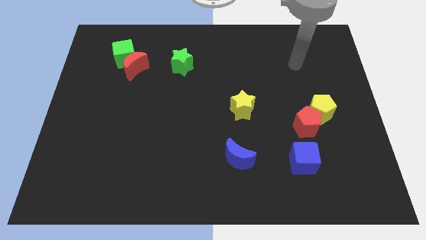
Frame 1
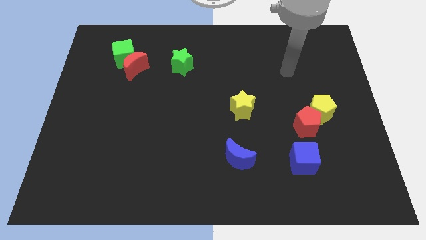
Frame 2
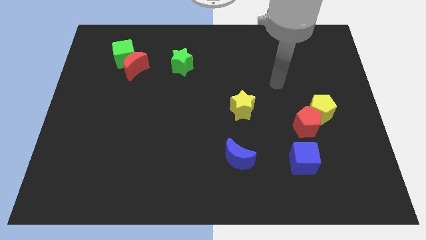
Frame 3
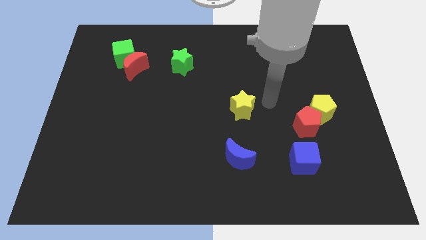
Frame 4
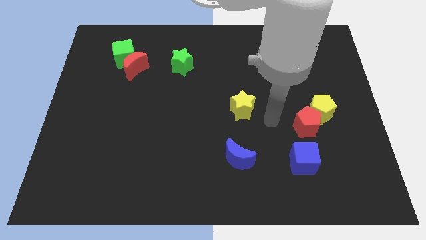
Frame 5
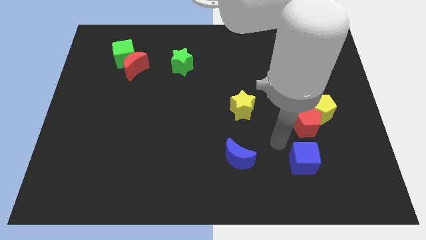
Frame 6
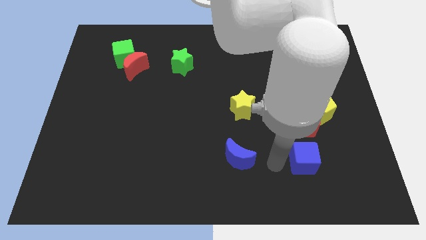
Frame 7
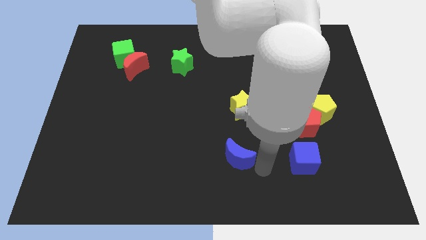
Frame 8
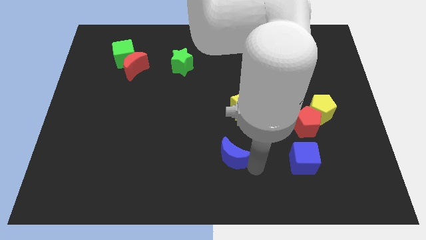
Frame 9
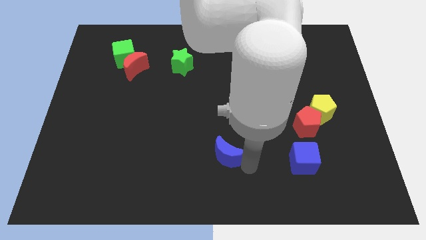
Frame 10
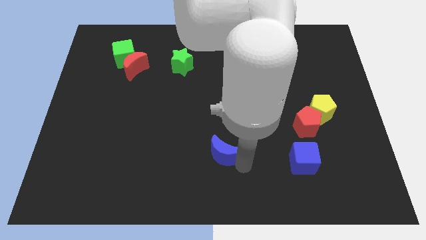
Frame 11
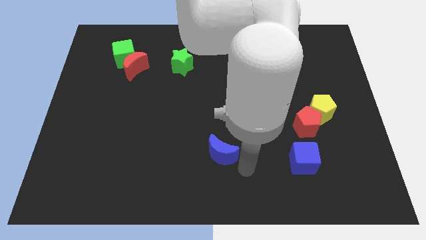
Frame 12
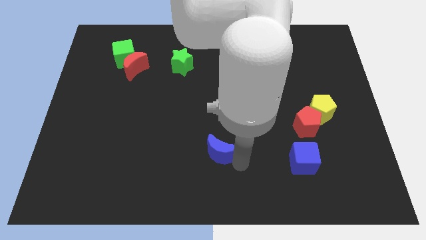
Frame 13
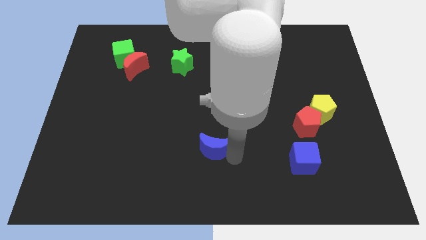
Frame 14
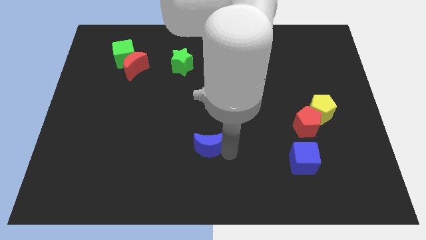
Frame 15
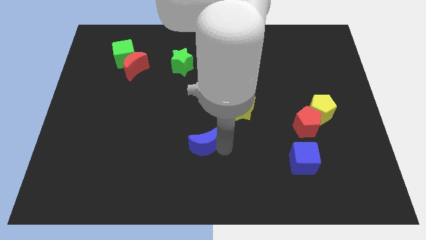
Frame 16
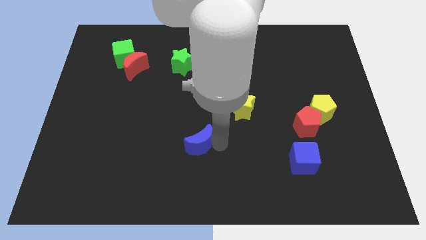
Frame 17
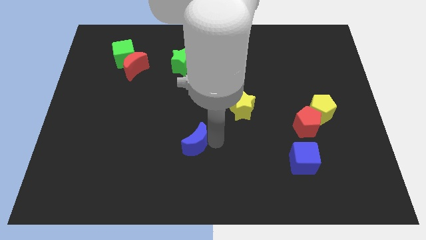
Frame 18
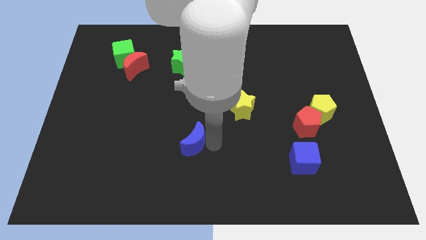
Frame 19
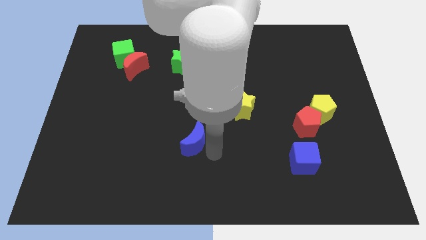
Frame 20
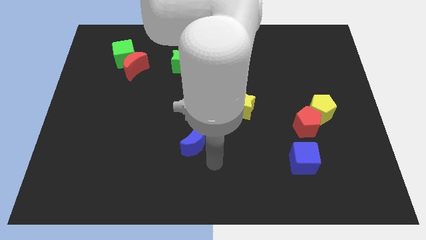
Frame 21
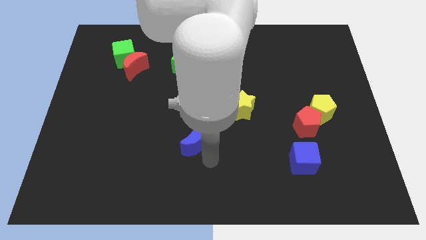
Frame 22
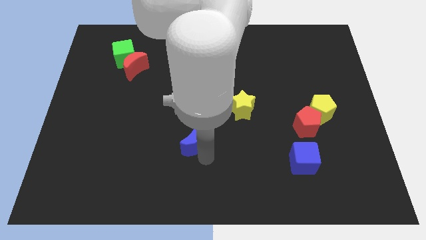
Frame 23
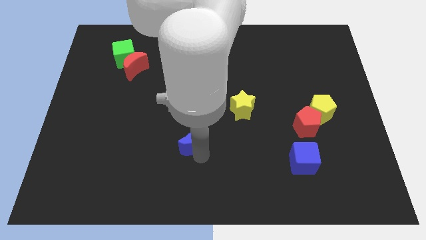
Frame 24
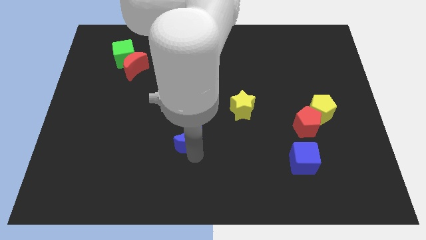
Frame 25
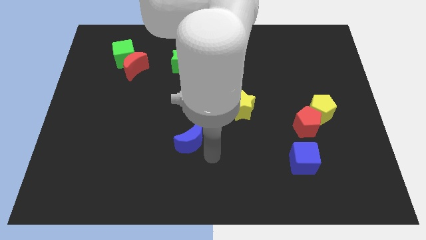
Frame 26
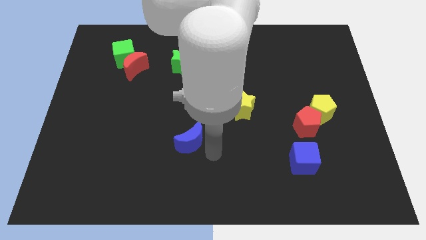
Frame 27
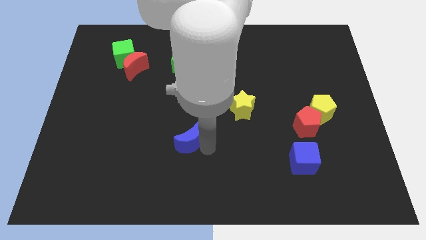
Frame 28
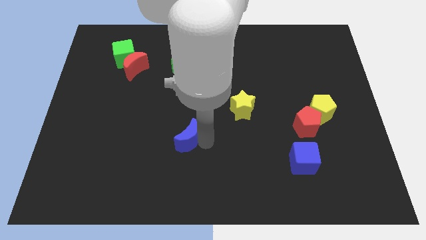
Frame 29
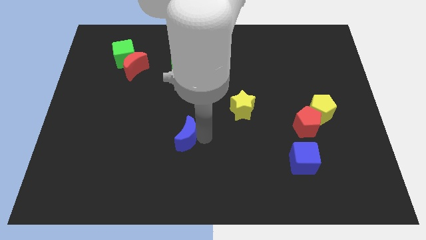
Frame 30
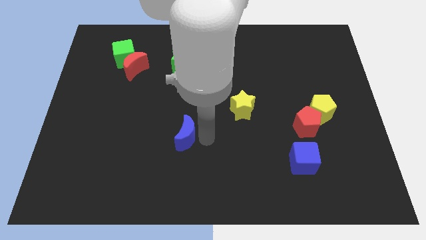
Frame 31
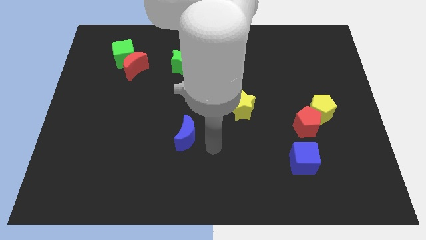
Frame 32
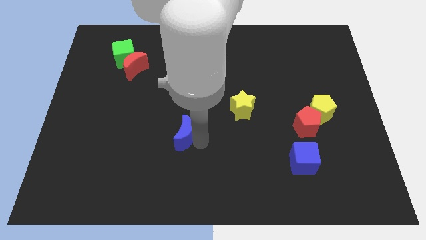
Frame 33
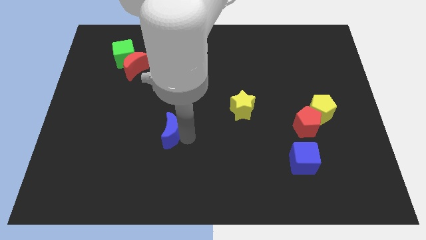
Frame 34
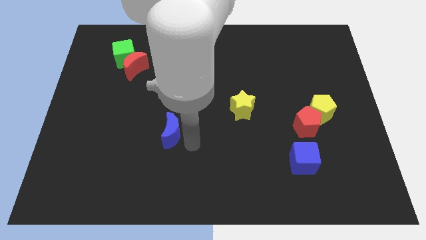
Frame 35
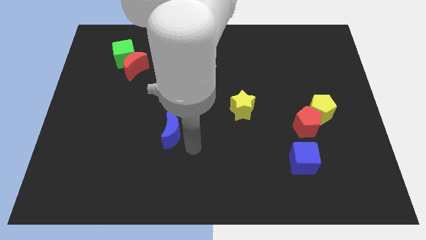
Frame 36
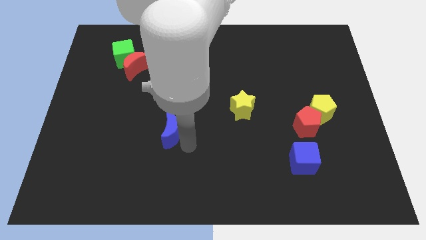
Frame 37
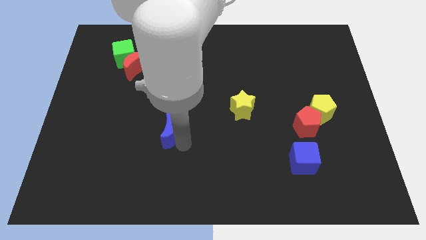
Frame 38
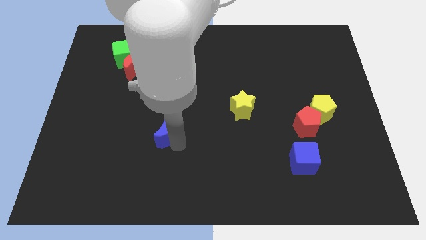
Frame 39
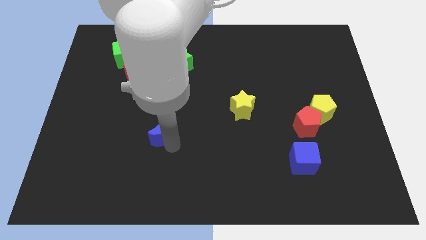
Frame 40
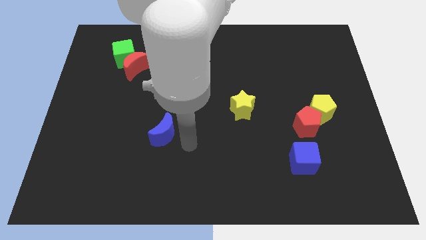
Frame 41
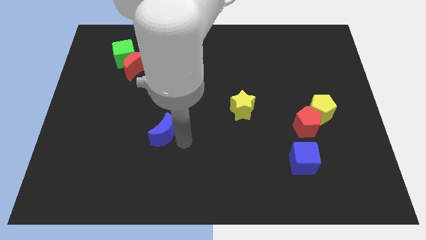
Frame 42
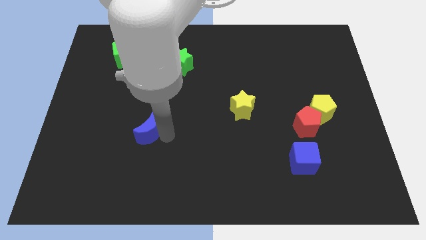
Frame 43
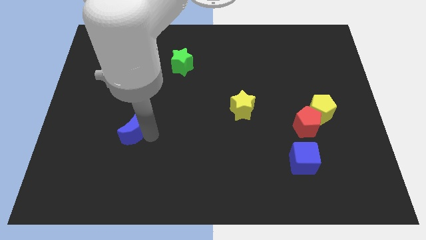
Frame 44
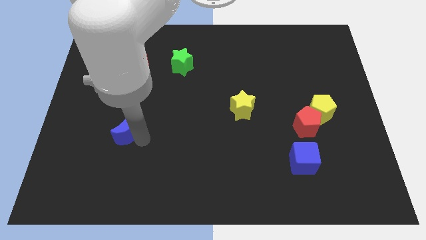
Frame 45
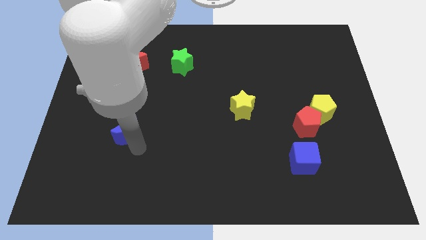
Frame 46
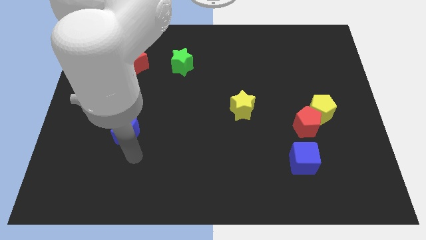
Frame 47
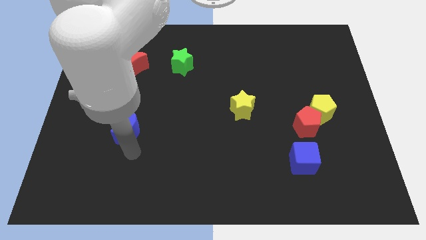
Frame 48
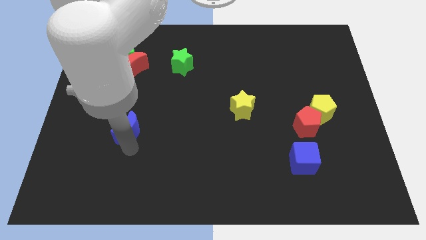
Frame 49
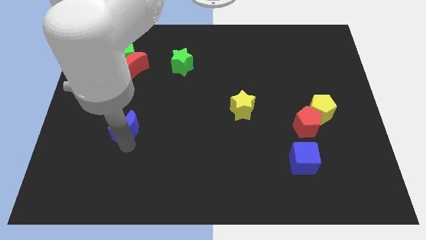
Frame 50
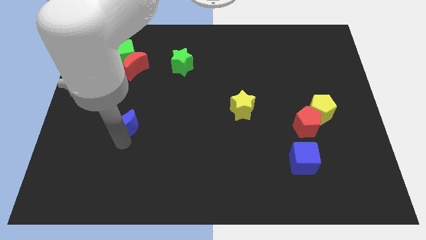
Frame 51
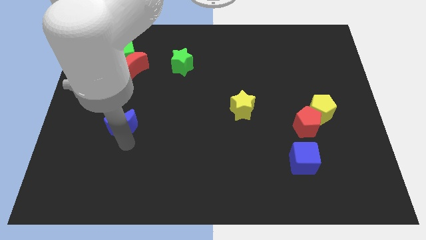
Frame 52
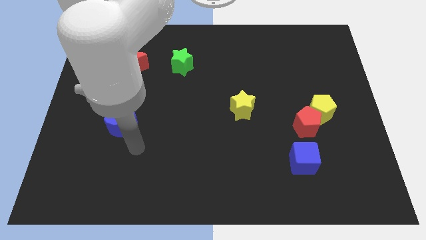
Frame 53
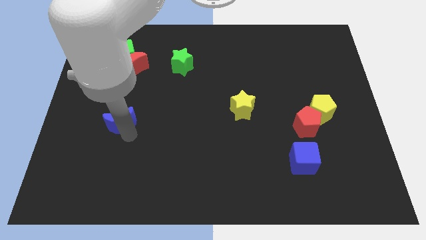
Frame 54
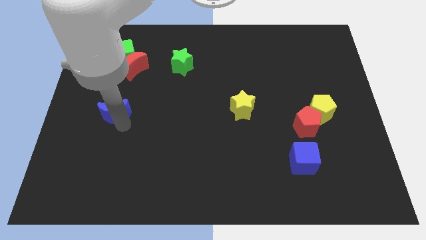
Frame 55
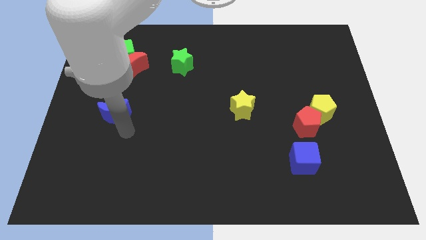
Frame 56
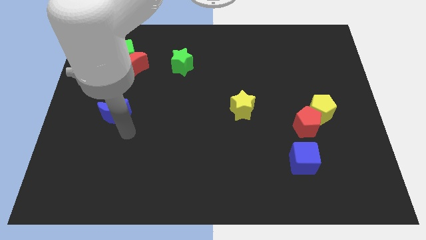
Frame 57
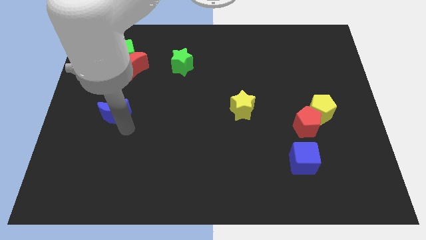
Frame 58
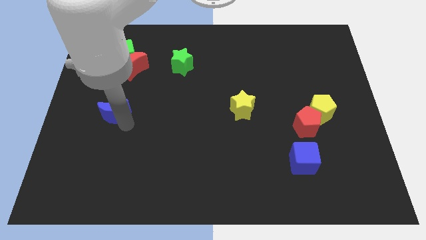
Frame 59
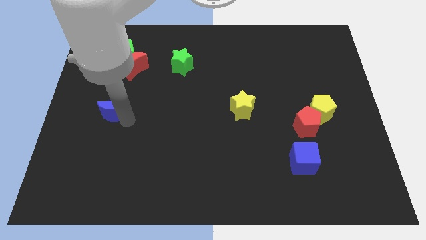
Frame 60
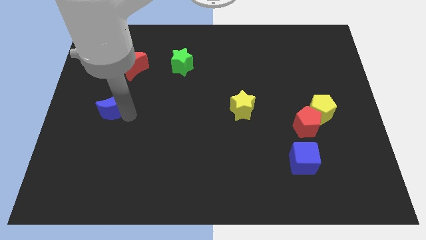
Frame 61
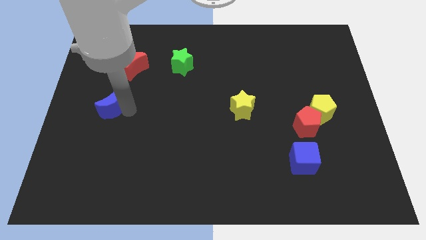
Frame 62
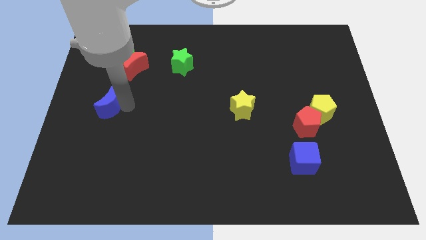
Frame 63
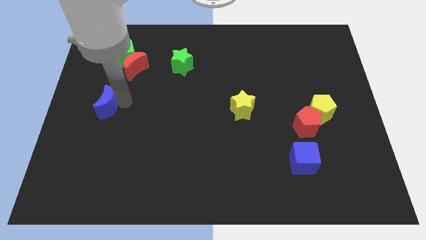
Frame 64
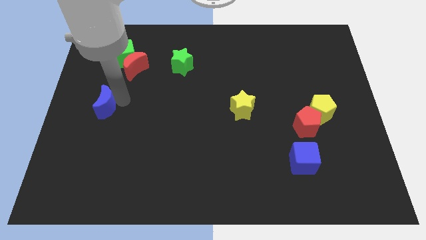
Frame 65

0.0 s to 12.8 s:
move the blue moon to the left side of the board
